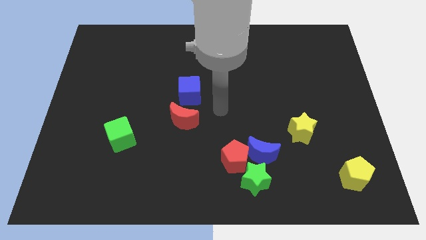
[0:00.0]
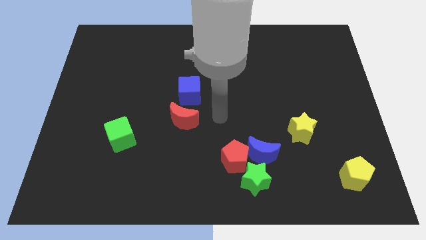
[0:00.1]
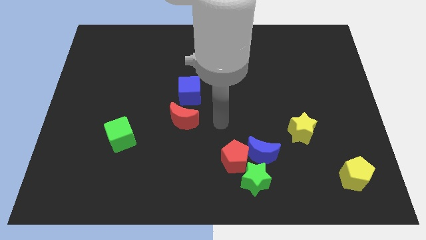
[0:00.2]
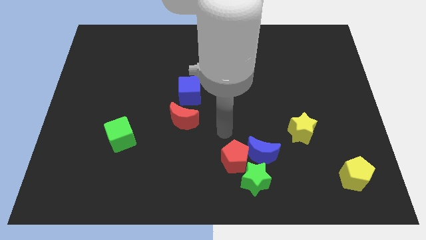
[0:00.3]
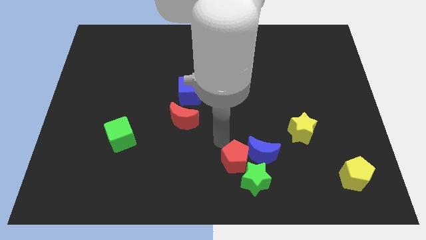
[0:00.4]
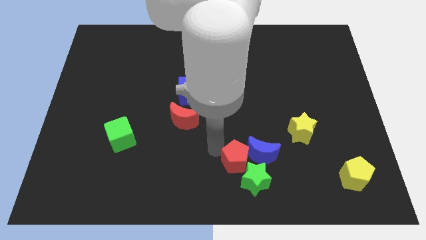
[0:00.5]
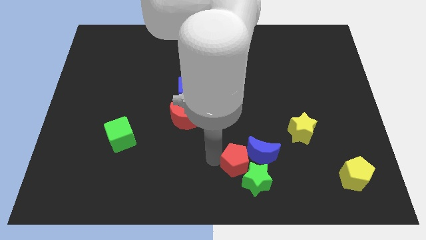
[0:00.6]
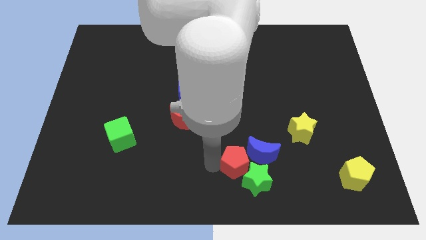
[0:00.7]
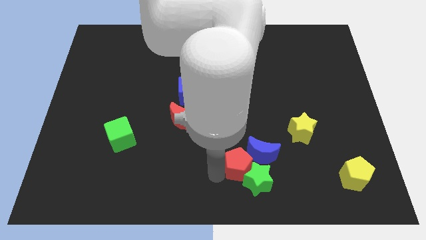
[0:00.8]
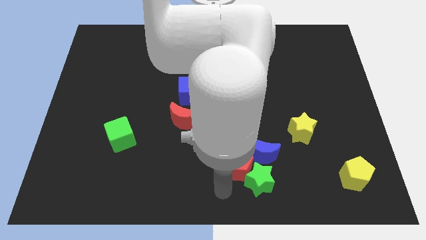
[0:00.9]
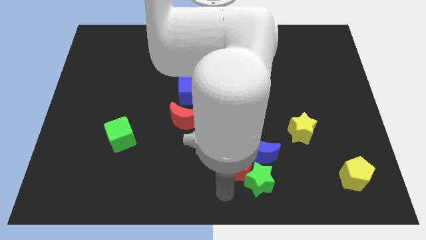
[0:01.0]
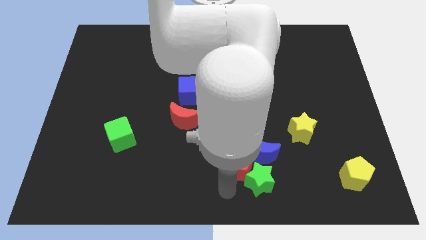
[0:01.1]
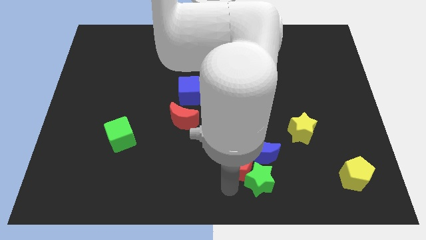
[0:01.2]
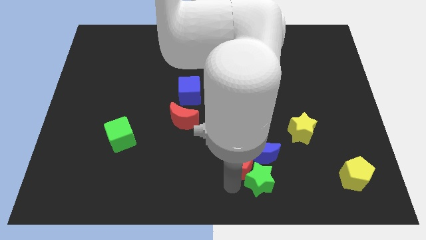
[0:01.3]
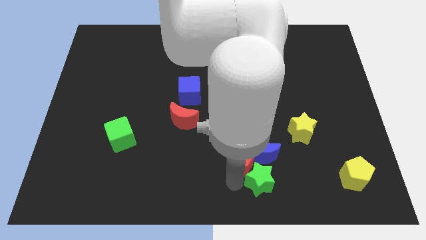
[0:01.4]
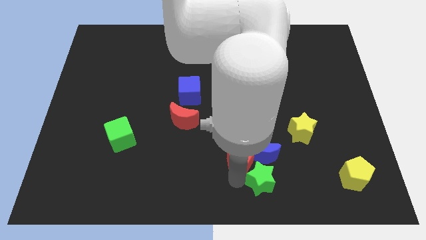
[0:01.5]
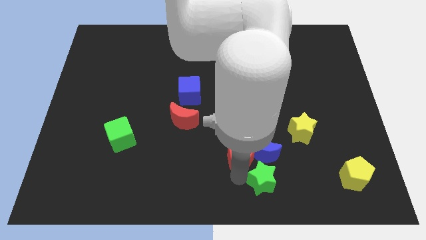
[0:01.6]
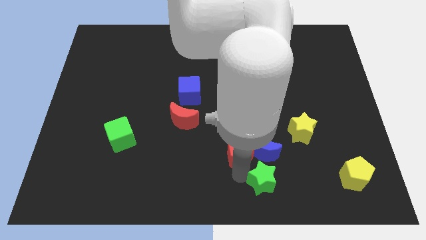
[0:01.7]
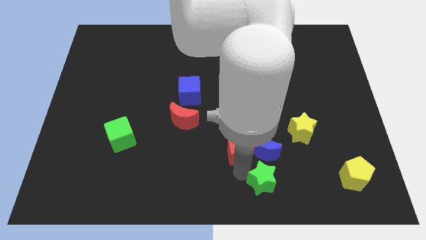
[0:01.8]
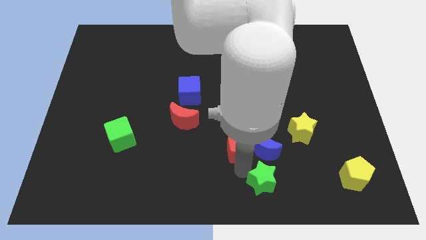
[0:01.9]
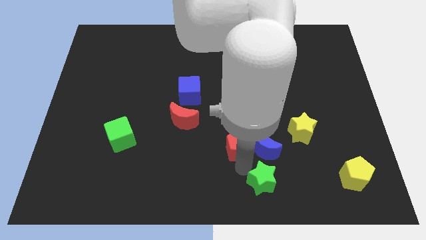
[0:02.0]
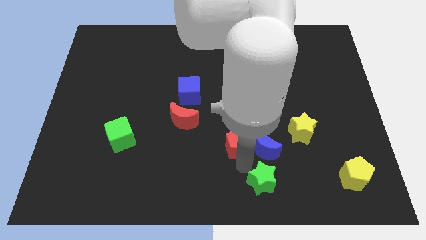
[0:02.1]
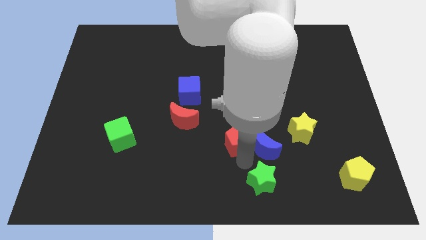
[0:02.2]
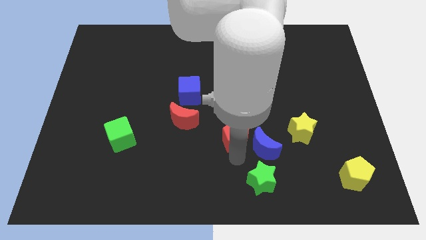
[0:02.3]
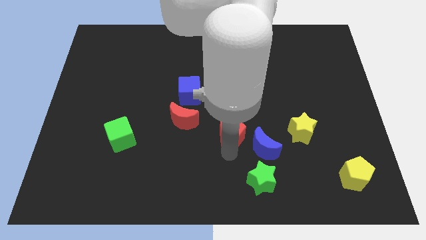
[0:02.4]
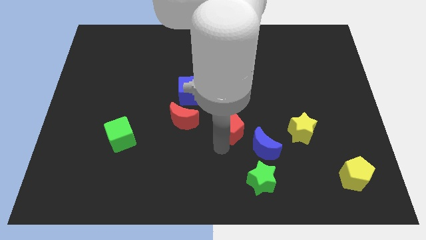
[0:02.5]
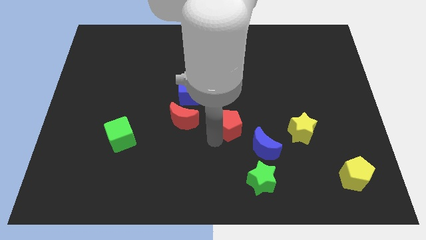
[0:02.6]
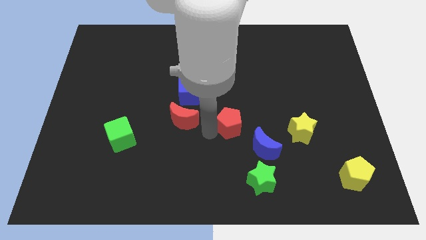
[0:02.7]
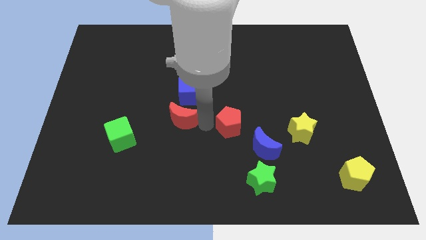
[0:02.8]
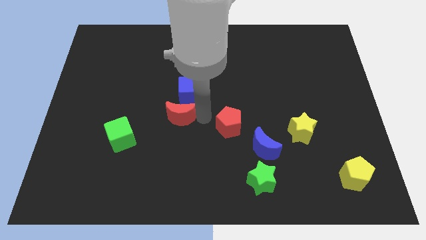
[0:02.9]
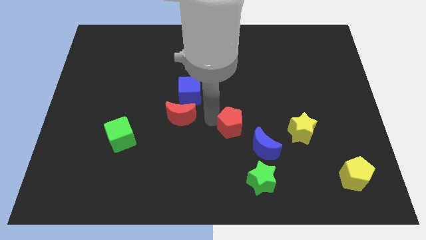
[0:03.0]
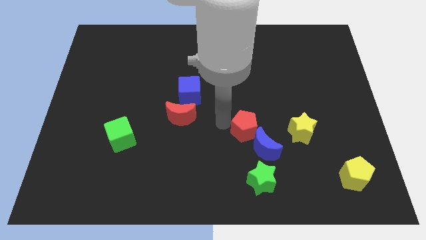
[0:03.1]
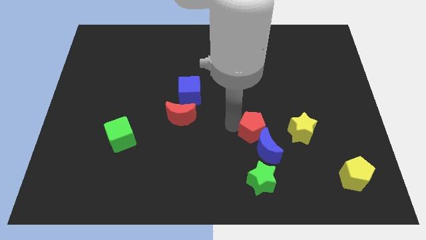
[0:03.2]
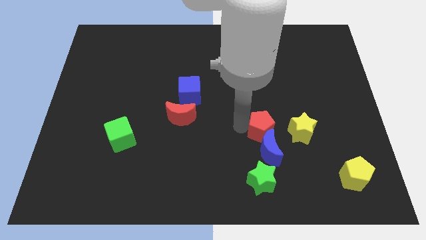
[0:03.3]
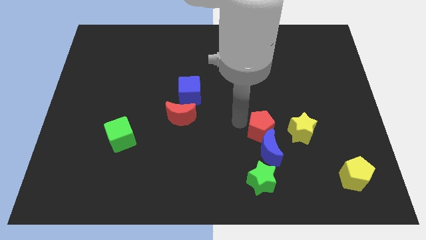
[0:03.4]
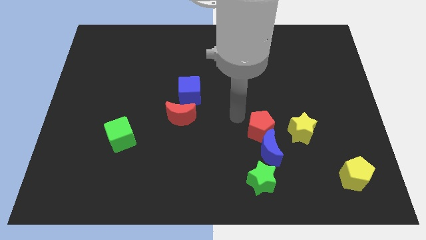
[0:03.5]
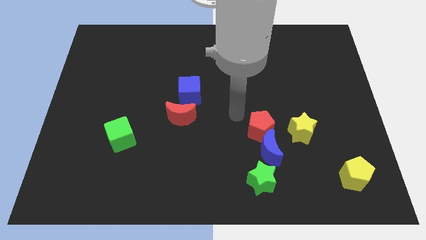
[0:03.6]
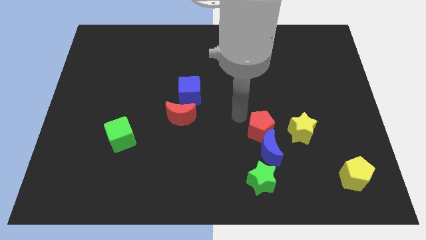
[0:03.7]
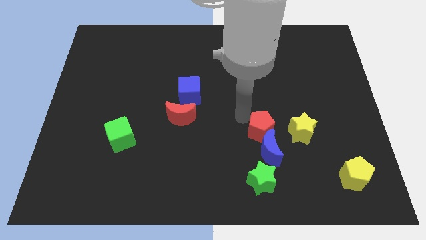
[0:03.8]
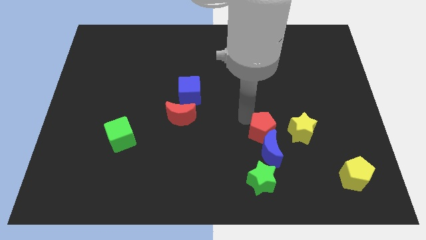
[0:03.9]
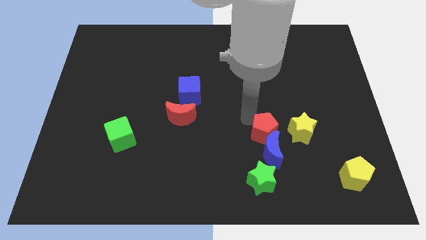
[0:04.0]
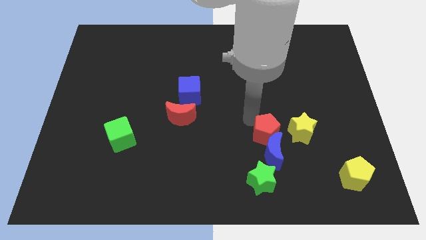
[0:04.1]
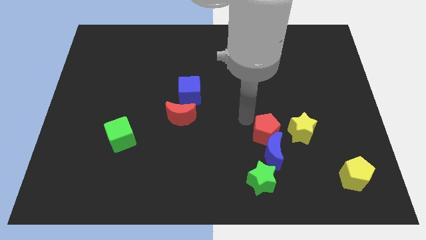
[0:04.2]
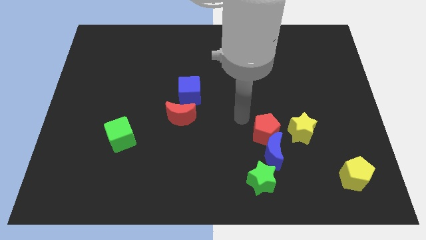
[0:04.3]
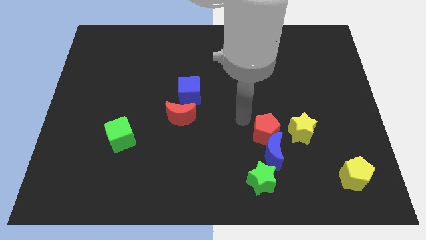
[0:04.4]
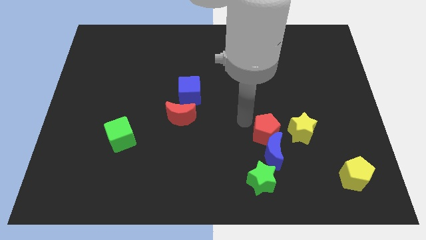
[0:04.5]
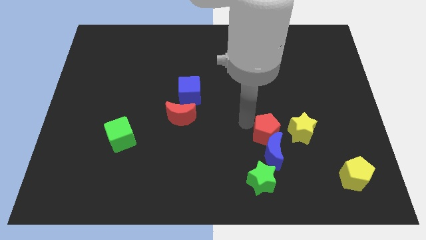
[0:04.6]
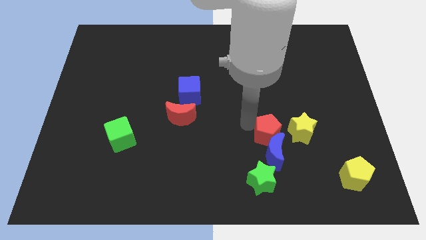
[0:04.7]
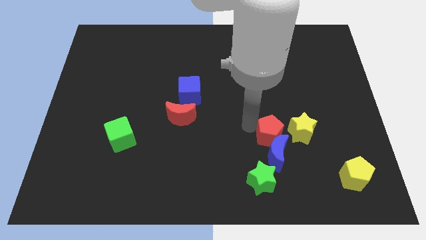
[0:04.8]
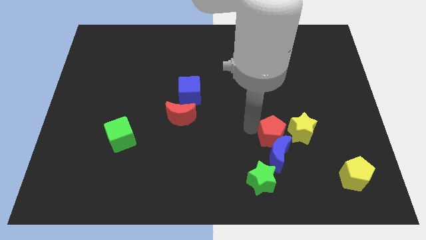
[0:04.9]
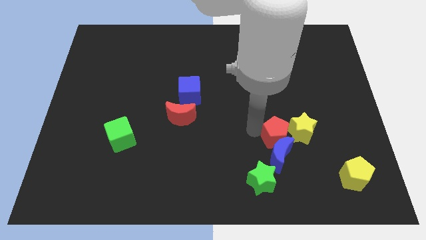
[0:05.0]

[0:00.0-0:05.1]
slightly slide the red pentagon to the right

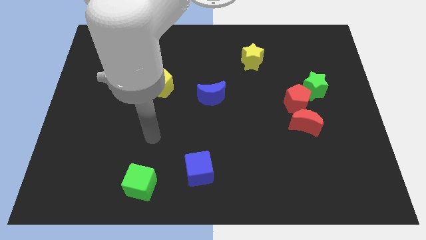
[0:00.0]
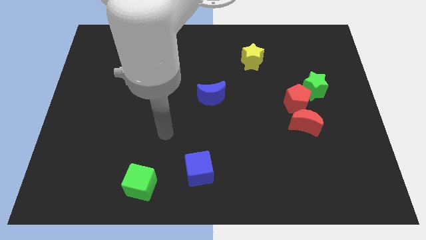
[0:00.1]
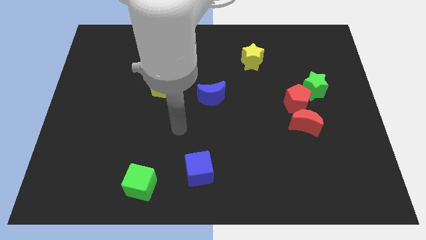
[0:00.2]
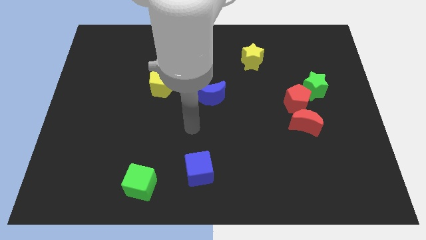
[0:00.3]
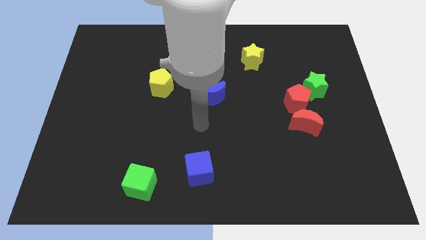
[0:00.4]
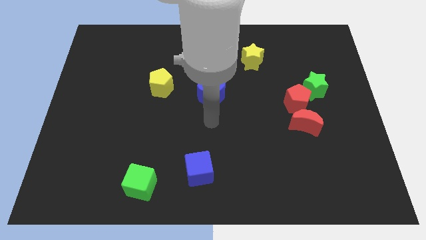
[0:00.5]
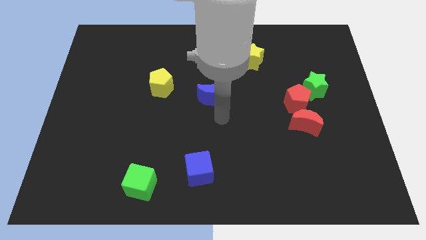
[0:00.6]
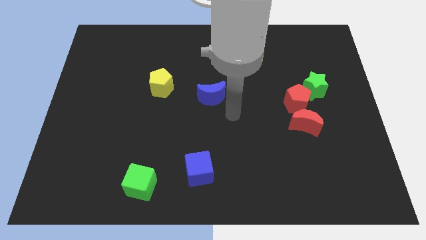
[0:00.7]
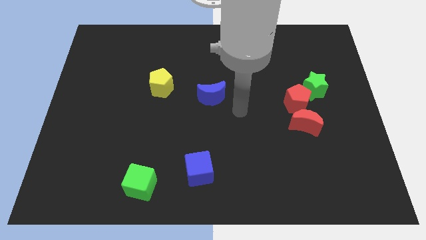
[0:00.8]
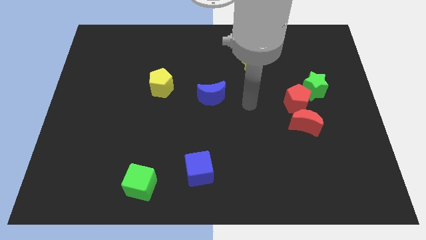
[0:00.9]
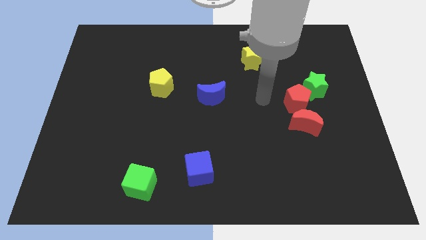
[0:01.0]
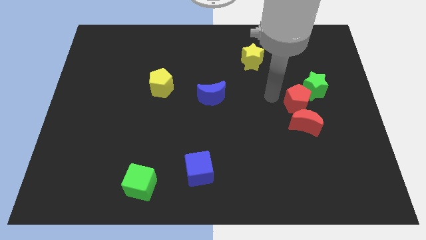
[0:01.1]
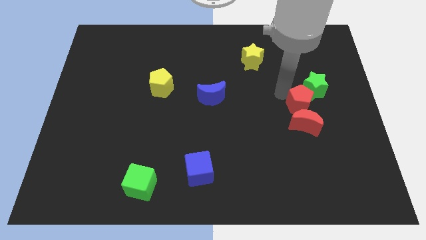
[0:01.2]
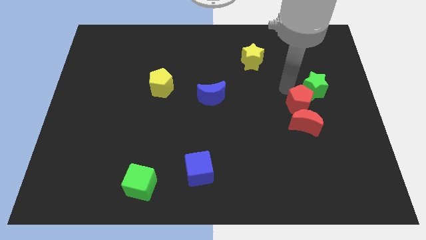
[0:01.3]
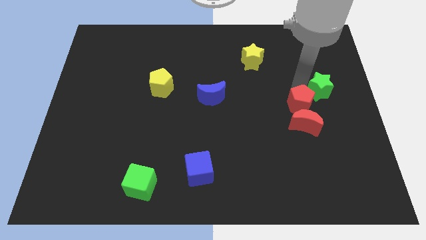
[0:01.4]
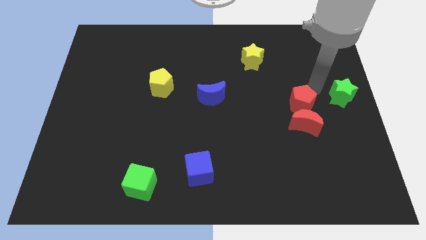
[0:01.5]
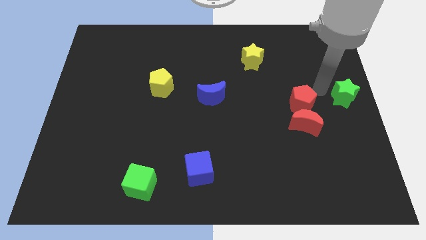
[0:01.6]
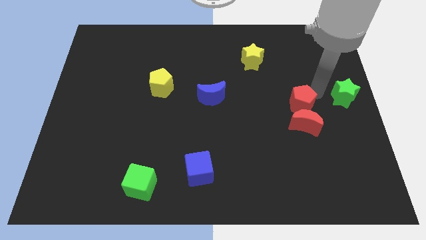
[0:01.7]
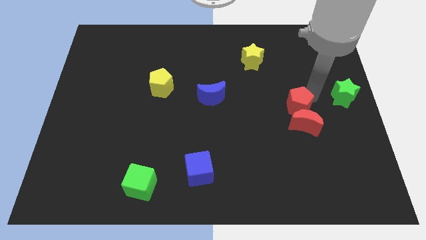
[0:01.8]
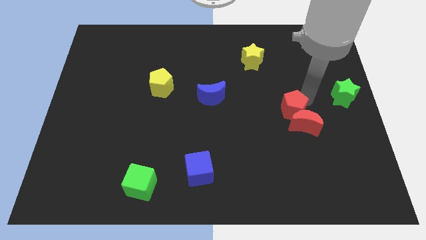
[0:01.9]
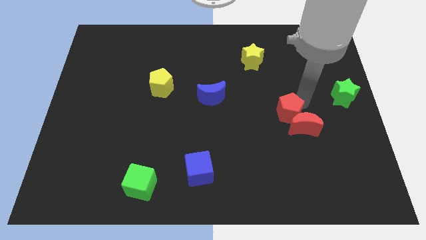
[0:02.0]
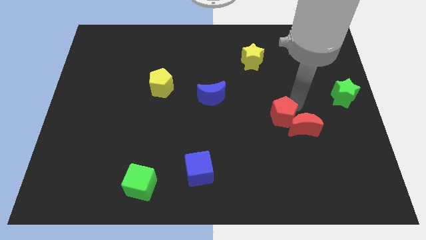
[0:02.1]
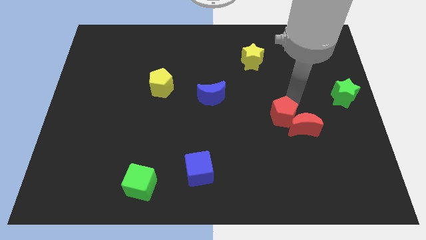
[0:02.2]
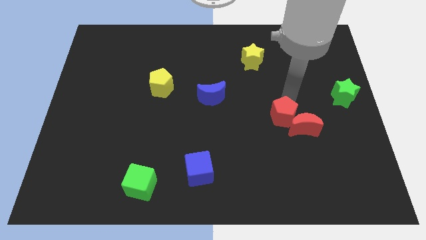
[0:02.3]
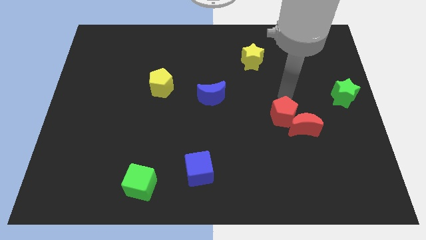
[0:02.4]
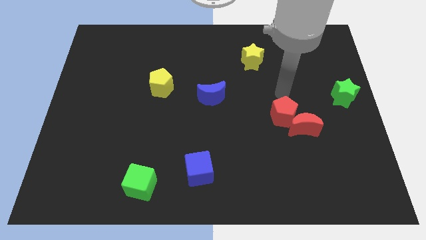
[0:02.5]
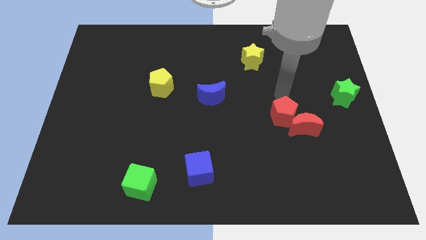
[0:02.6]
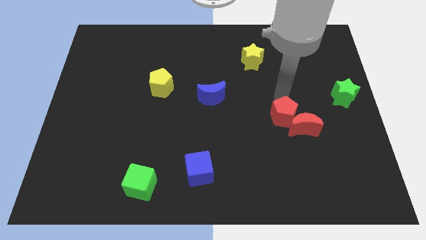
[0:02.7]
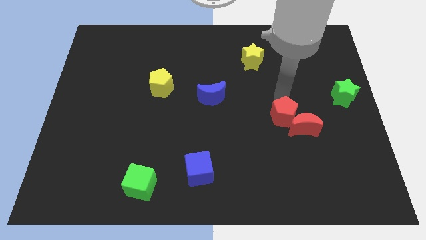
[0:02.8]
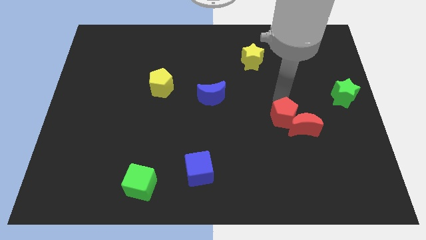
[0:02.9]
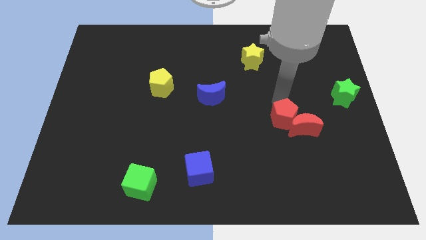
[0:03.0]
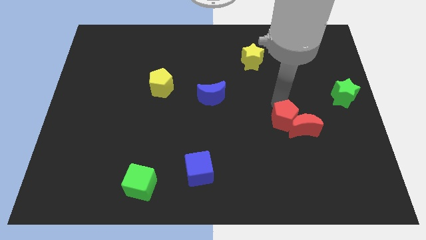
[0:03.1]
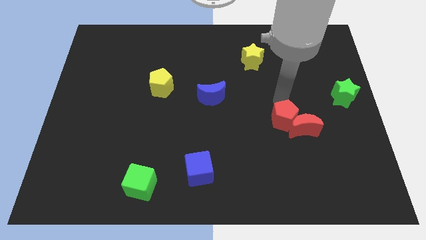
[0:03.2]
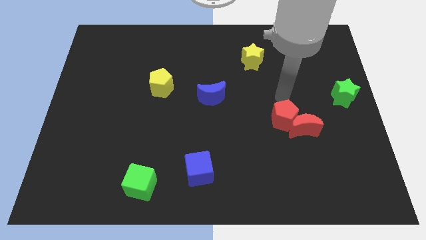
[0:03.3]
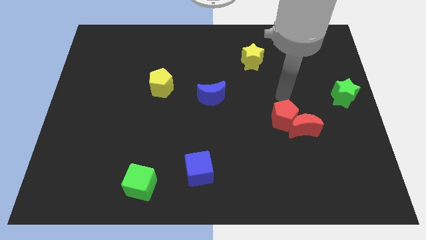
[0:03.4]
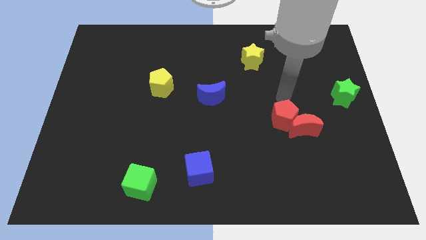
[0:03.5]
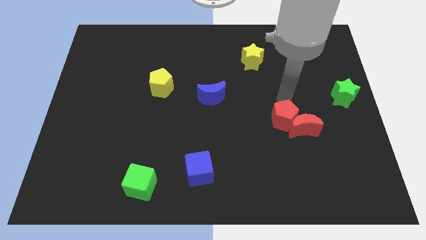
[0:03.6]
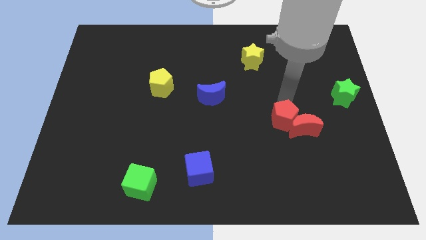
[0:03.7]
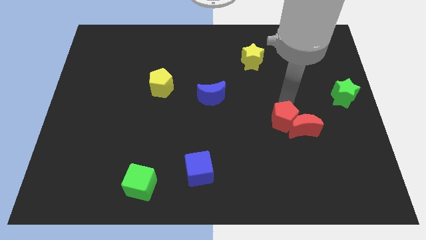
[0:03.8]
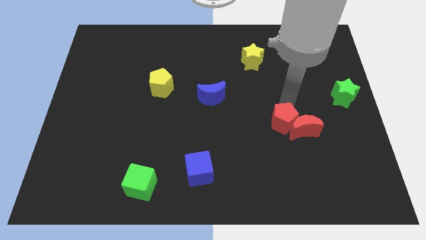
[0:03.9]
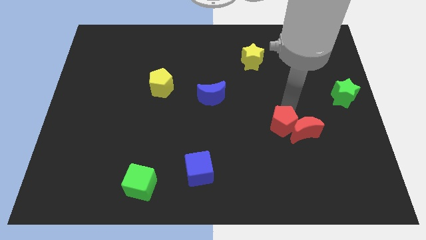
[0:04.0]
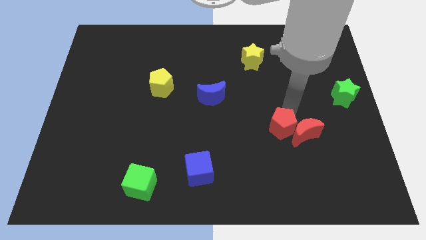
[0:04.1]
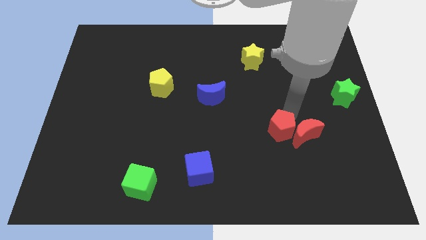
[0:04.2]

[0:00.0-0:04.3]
move the red pentagon somewhat down
